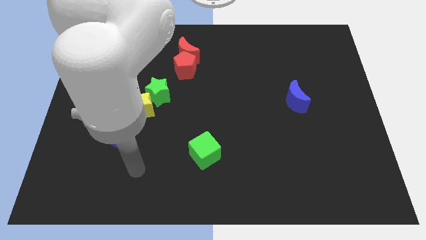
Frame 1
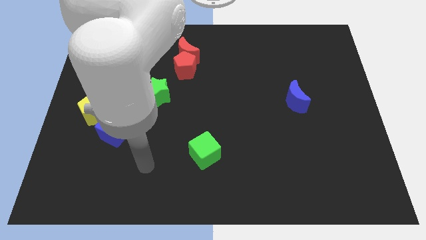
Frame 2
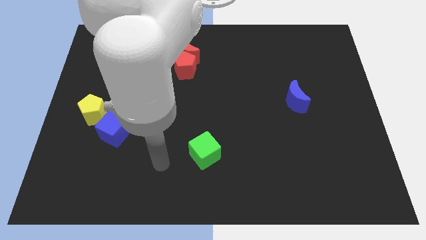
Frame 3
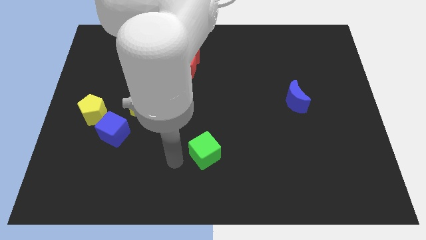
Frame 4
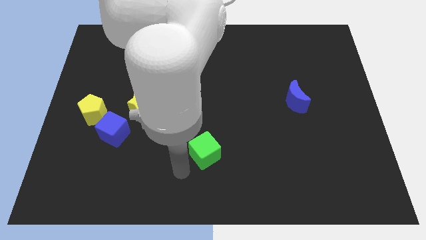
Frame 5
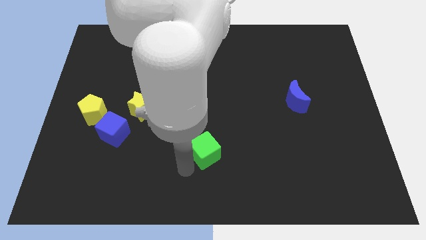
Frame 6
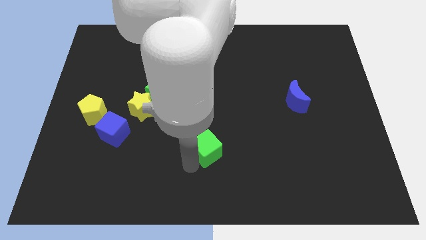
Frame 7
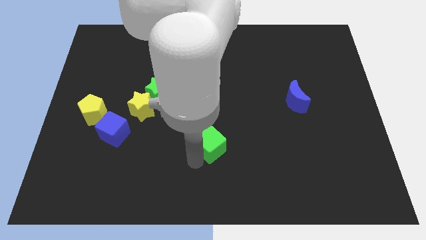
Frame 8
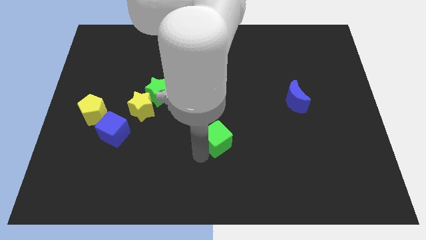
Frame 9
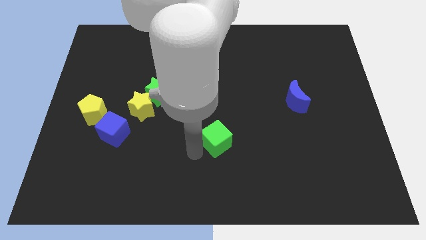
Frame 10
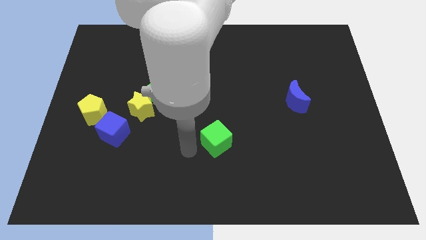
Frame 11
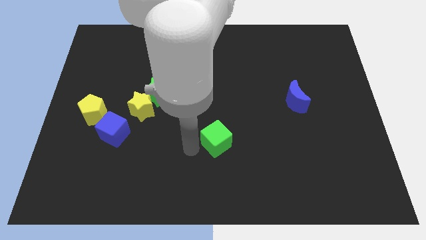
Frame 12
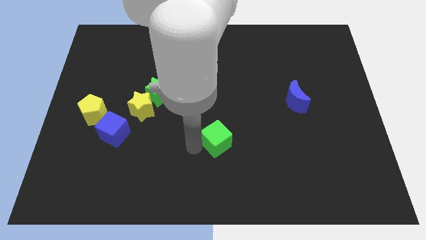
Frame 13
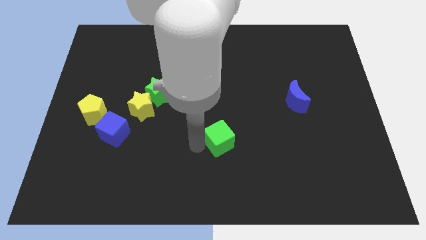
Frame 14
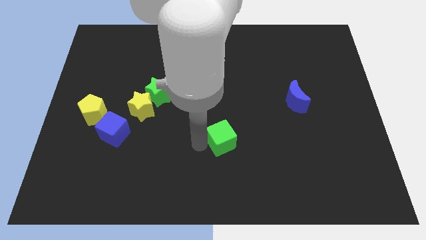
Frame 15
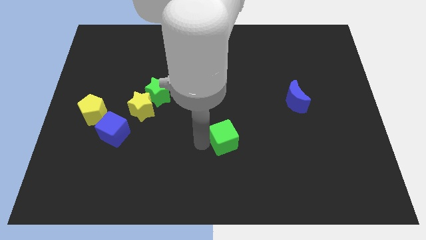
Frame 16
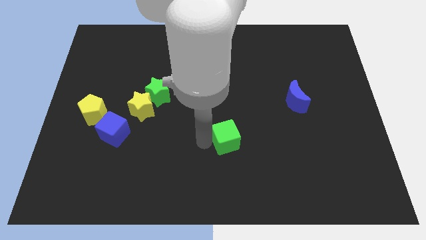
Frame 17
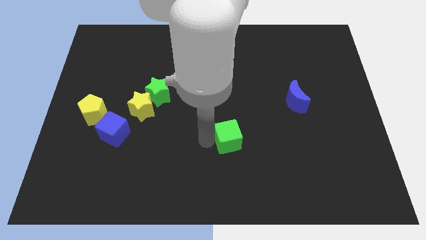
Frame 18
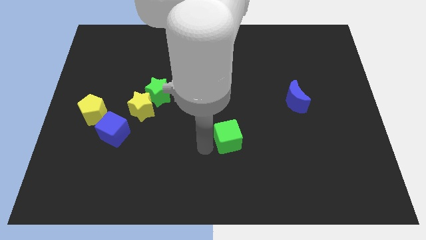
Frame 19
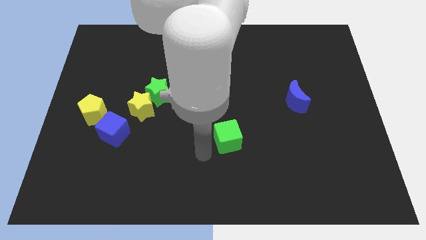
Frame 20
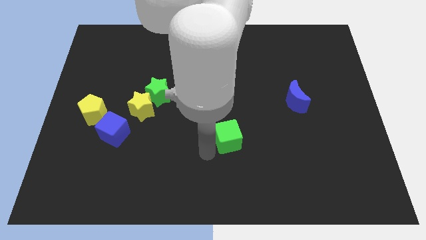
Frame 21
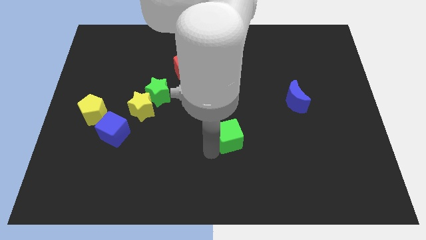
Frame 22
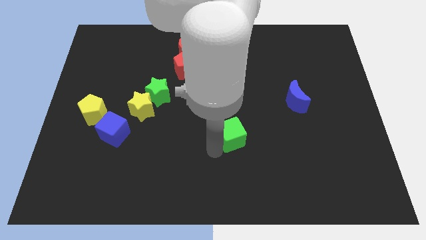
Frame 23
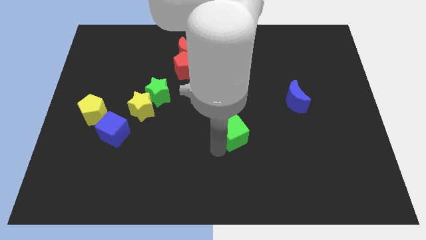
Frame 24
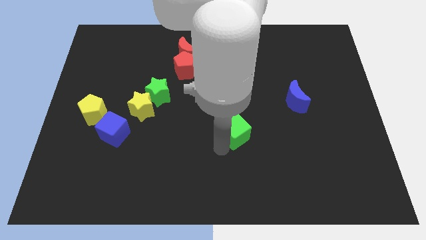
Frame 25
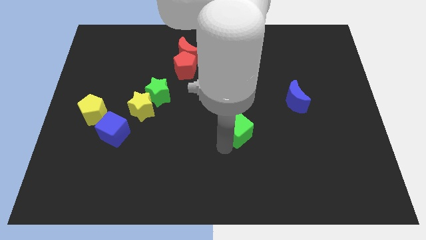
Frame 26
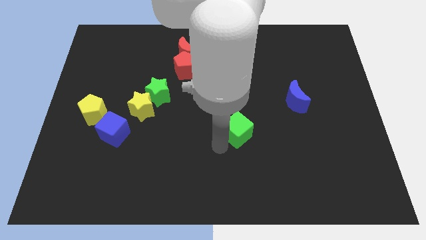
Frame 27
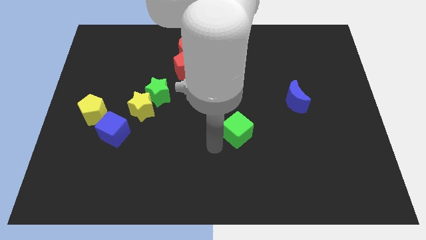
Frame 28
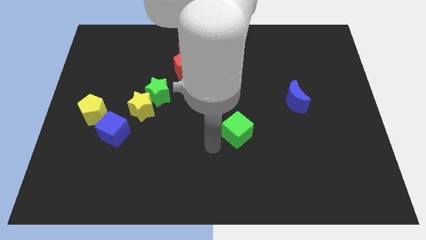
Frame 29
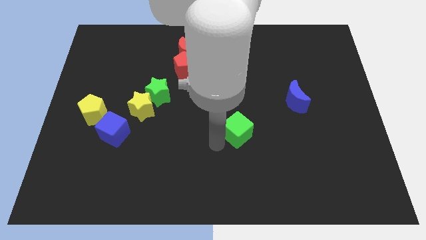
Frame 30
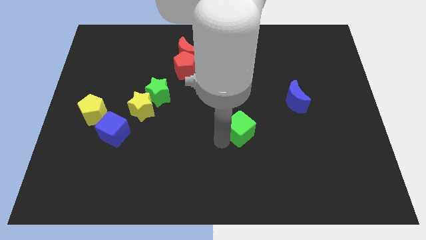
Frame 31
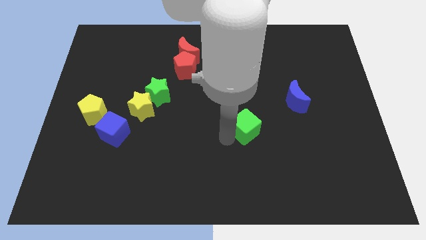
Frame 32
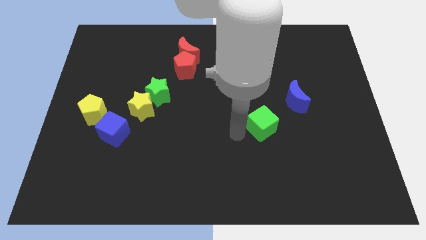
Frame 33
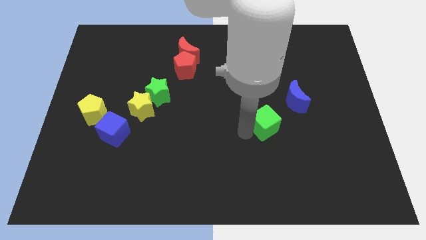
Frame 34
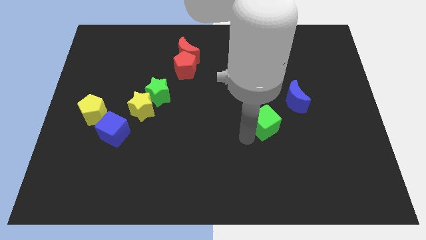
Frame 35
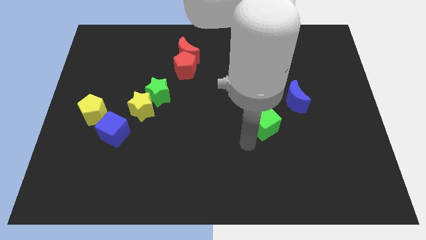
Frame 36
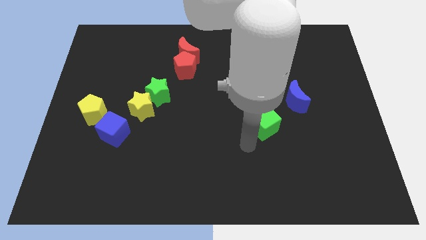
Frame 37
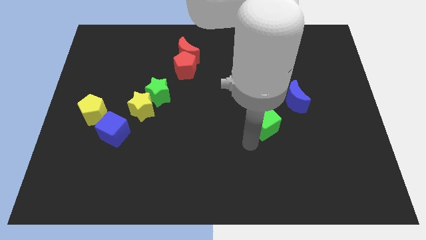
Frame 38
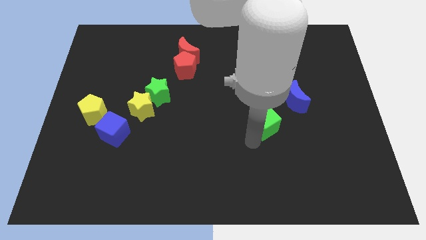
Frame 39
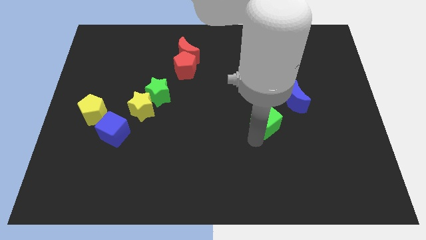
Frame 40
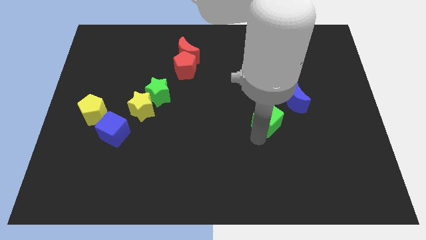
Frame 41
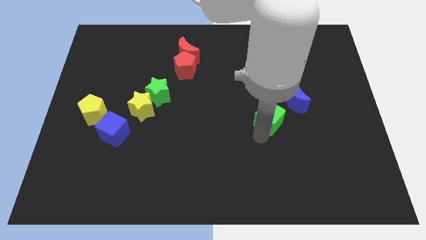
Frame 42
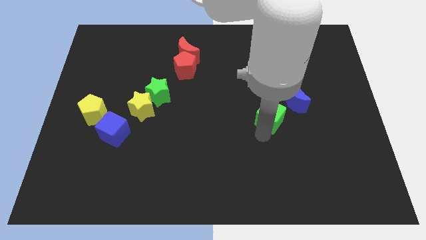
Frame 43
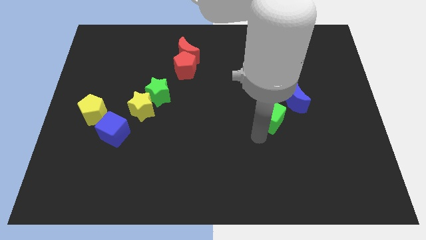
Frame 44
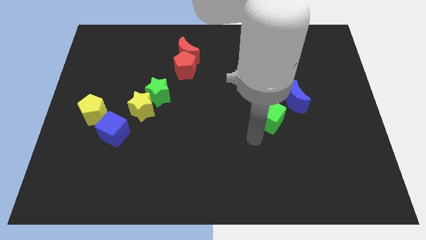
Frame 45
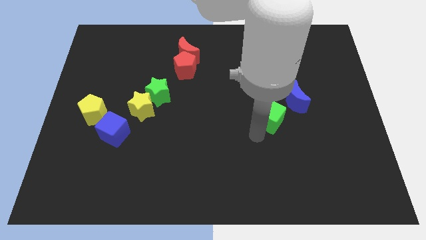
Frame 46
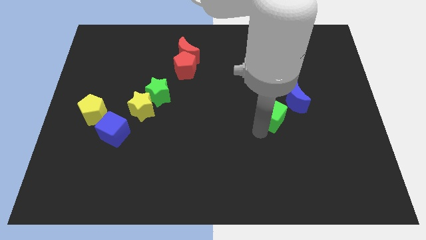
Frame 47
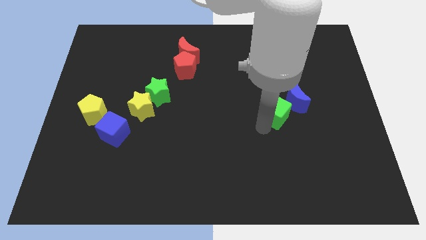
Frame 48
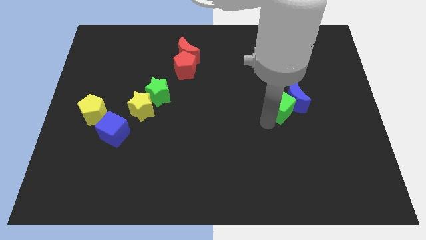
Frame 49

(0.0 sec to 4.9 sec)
put the green cube next to the blue moon

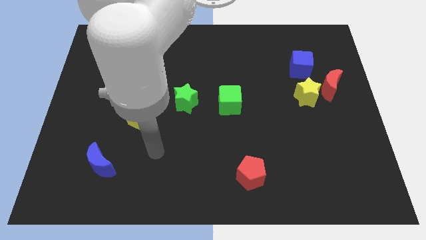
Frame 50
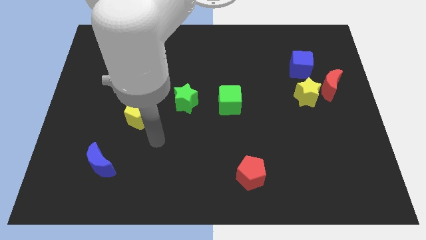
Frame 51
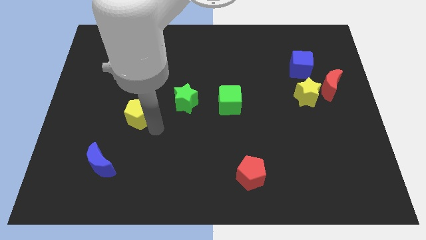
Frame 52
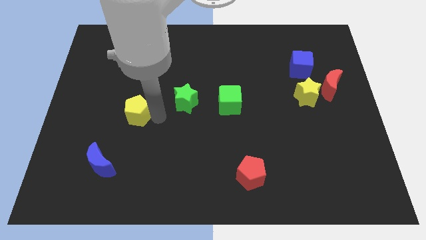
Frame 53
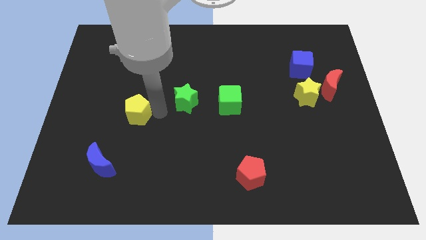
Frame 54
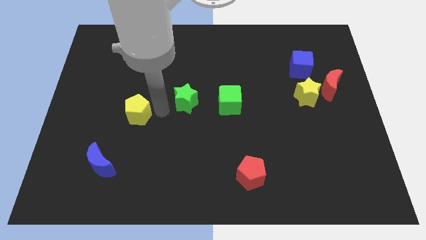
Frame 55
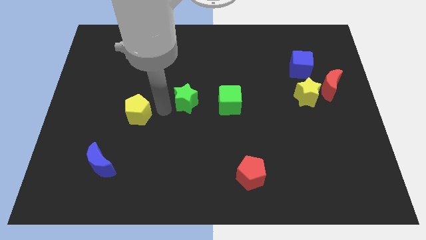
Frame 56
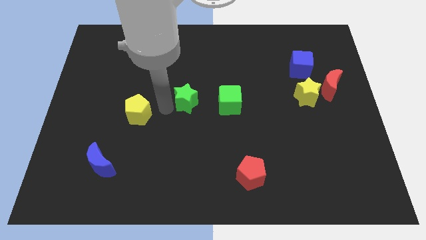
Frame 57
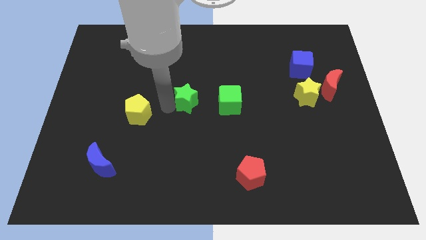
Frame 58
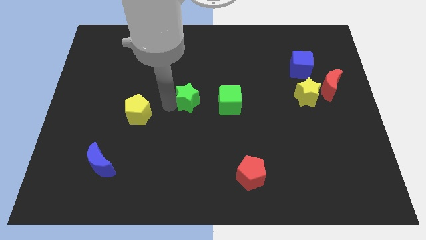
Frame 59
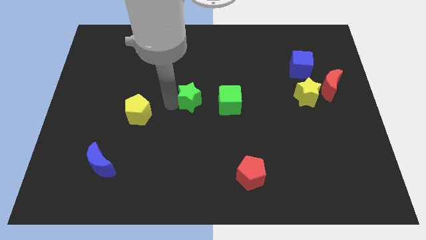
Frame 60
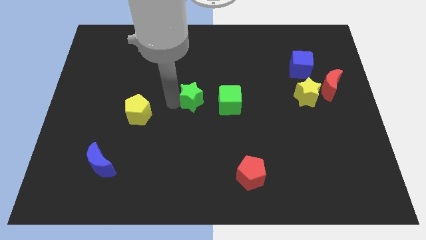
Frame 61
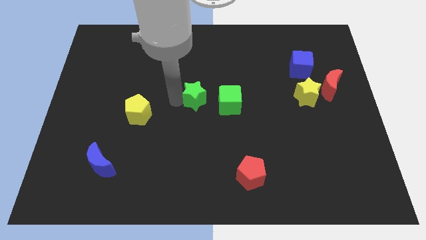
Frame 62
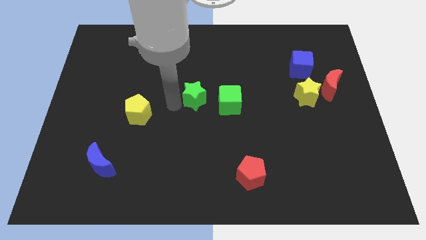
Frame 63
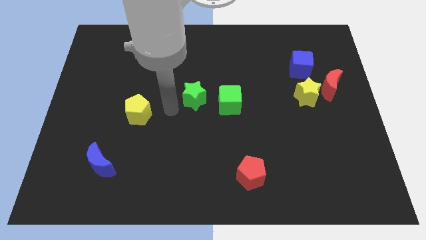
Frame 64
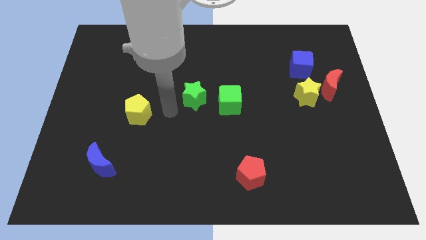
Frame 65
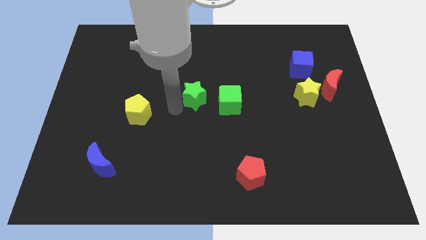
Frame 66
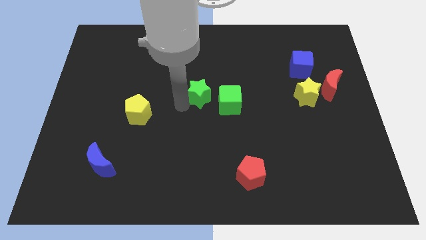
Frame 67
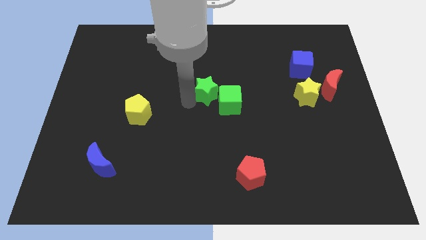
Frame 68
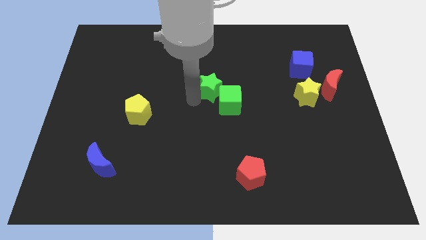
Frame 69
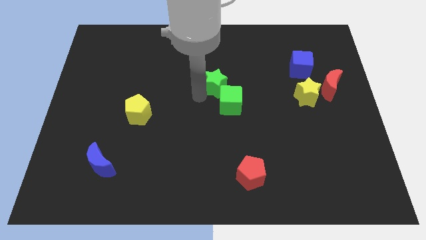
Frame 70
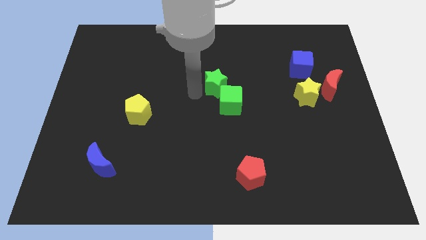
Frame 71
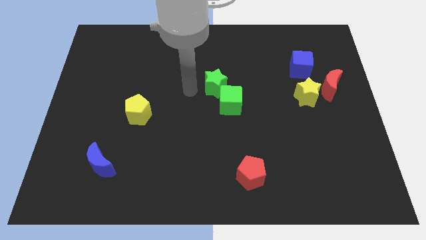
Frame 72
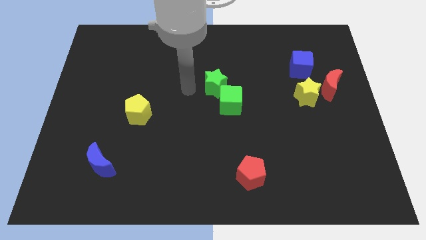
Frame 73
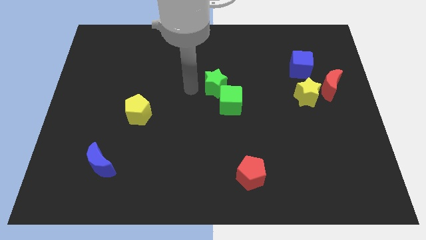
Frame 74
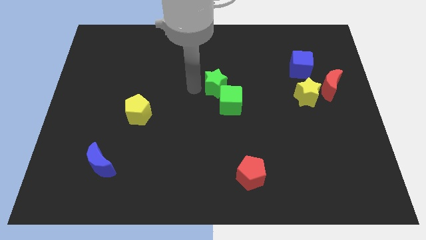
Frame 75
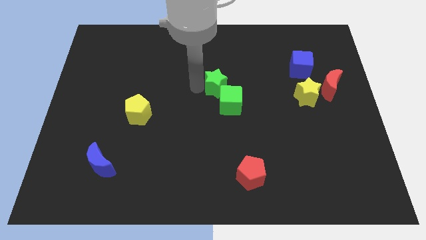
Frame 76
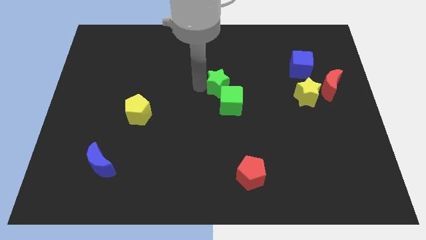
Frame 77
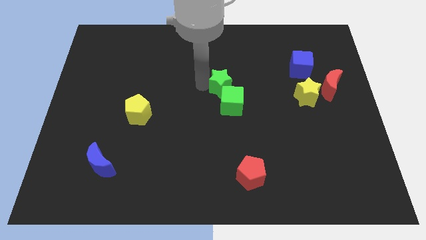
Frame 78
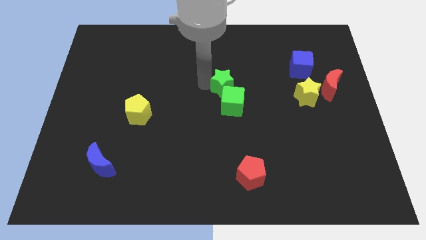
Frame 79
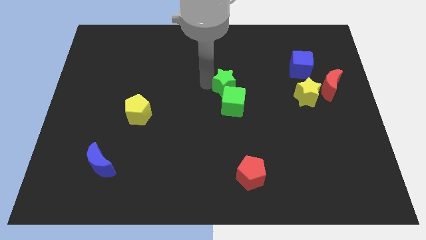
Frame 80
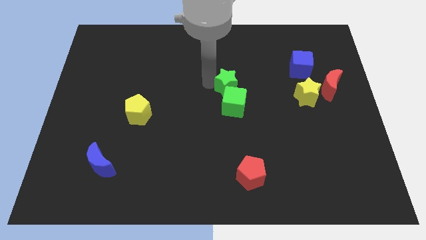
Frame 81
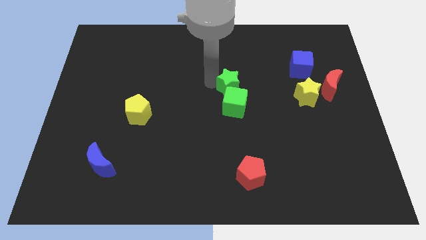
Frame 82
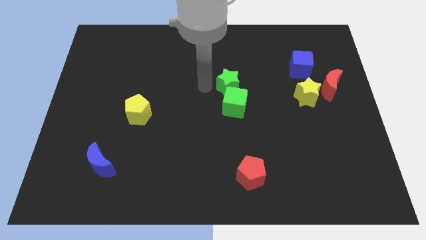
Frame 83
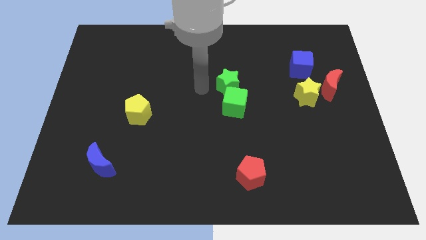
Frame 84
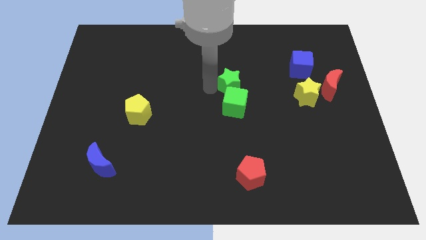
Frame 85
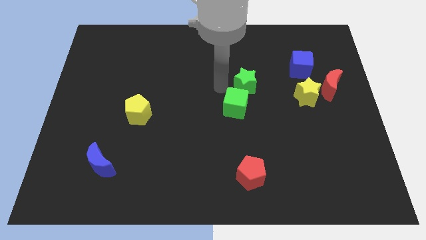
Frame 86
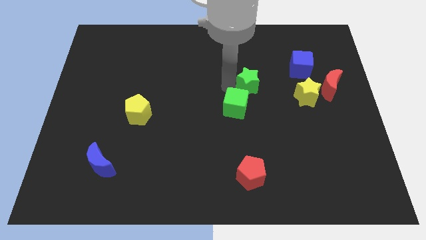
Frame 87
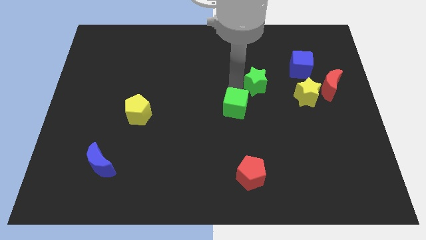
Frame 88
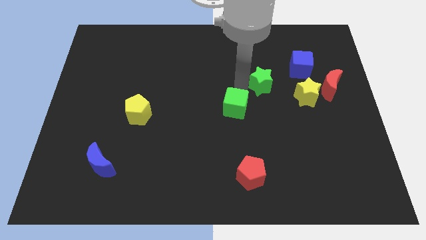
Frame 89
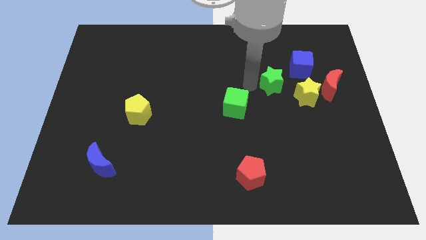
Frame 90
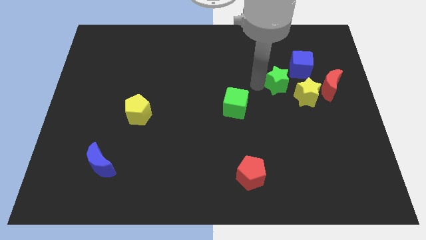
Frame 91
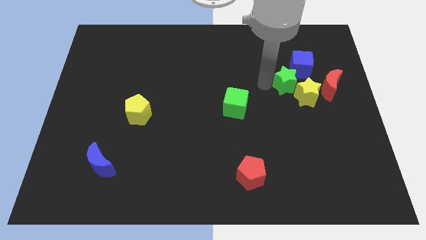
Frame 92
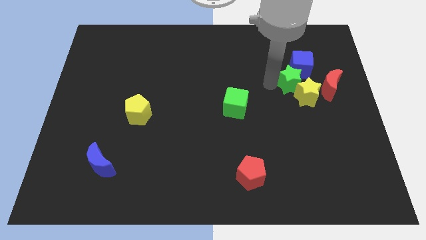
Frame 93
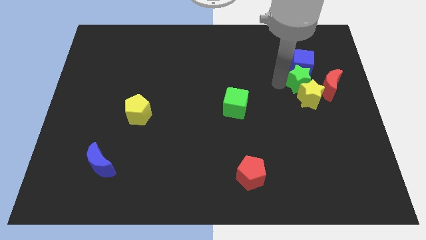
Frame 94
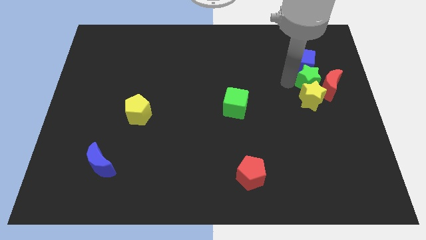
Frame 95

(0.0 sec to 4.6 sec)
push the green star towards the red moon
